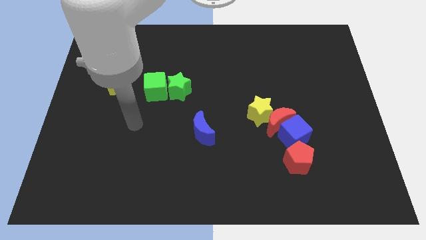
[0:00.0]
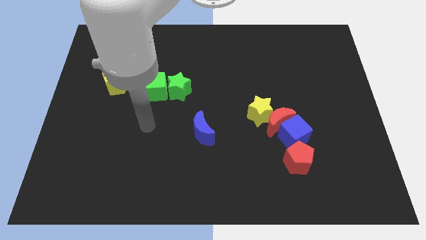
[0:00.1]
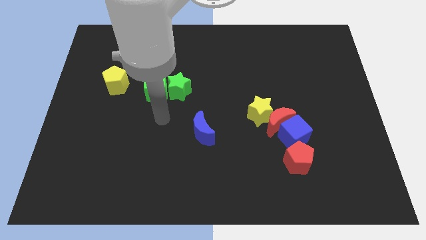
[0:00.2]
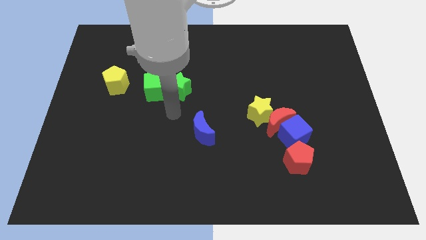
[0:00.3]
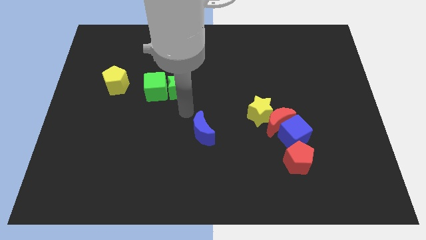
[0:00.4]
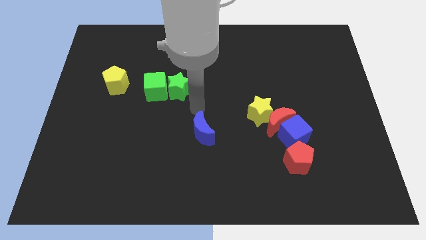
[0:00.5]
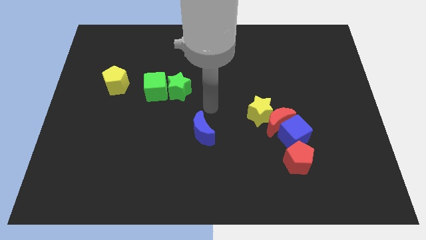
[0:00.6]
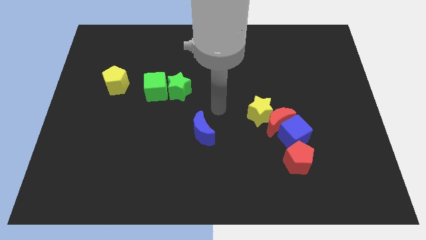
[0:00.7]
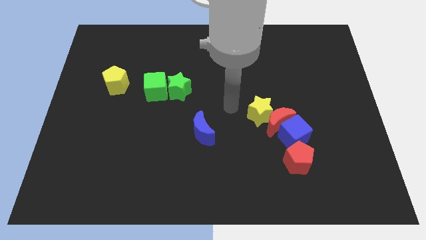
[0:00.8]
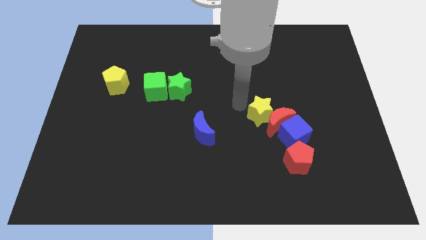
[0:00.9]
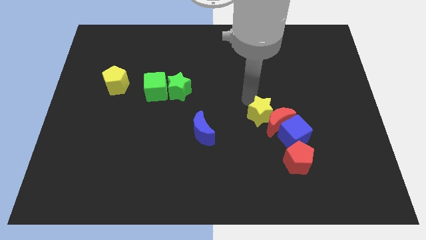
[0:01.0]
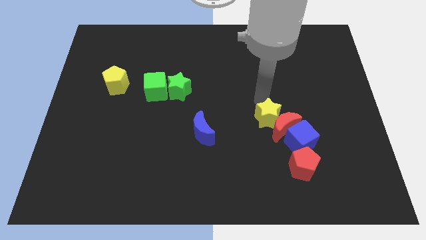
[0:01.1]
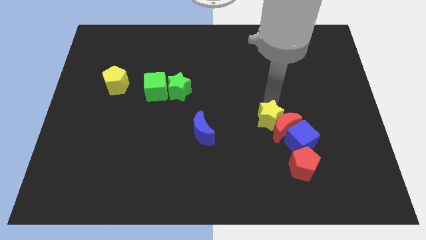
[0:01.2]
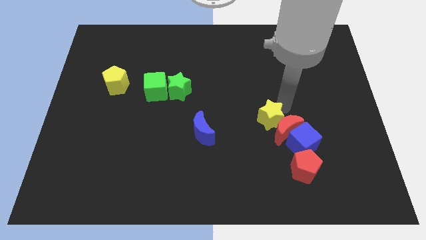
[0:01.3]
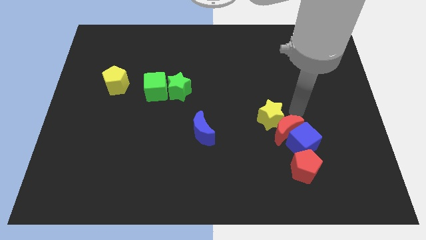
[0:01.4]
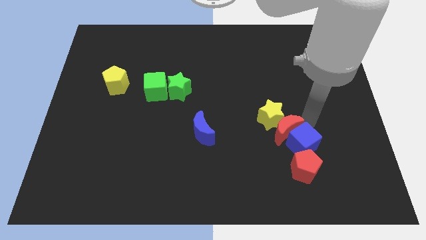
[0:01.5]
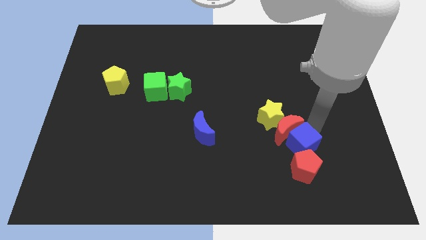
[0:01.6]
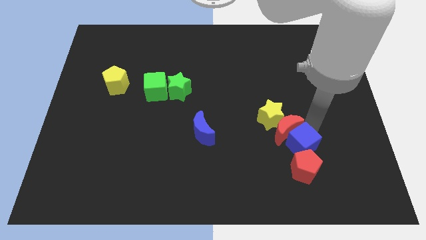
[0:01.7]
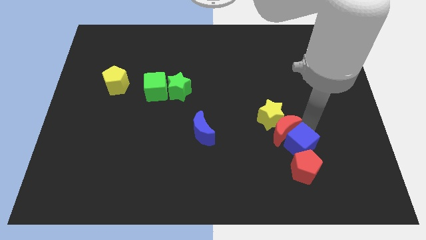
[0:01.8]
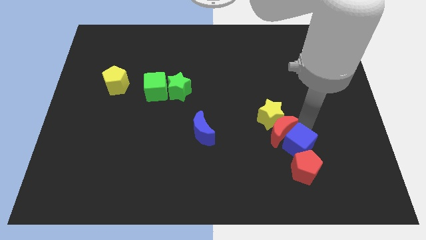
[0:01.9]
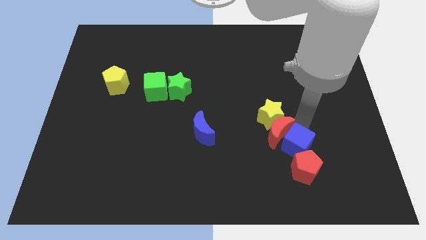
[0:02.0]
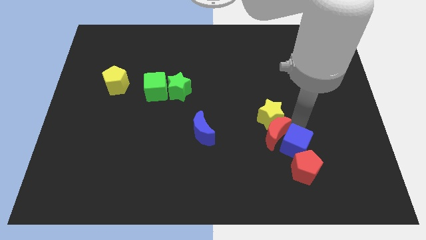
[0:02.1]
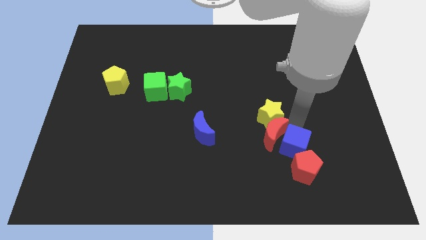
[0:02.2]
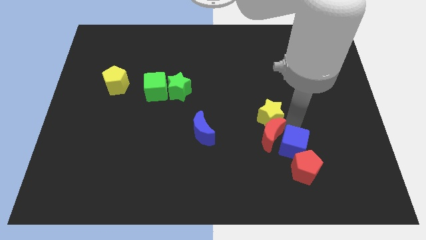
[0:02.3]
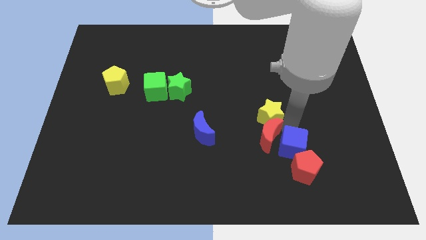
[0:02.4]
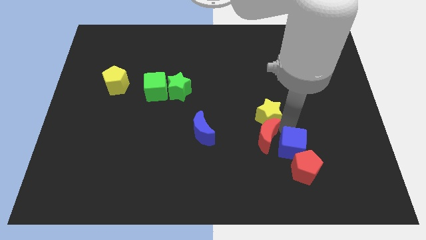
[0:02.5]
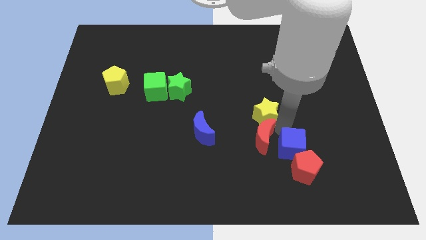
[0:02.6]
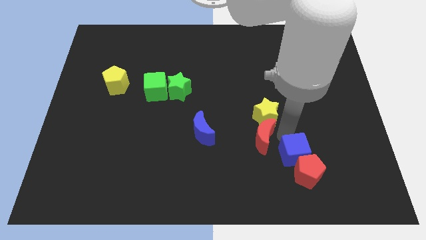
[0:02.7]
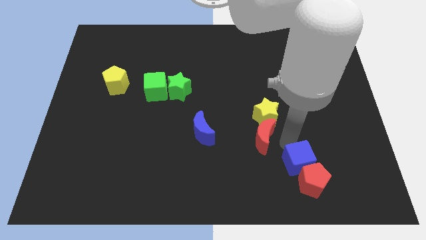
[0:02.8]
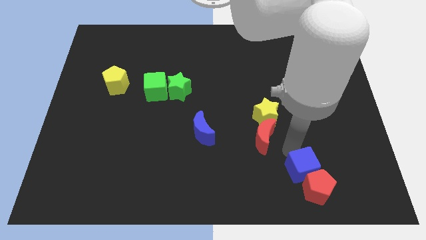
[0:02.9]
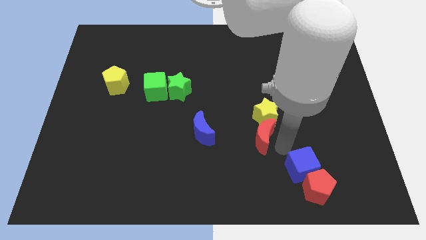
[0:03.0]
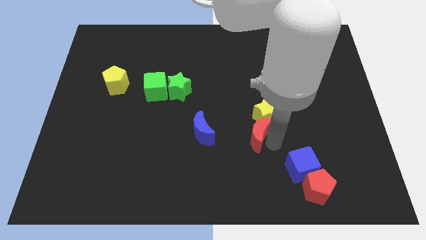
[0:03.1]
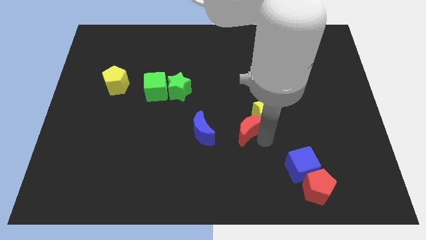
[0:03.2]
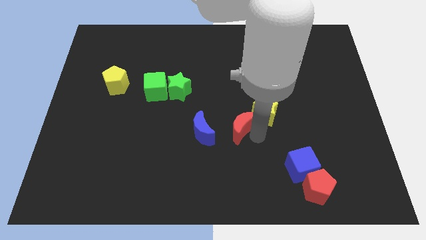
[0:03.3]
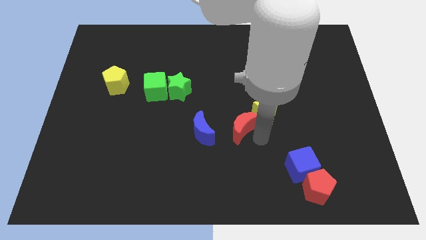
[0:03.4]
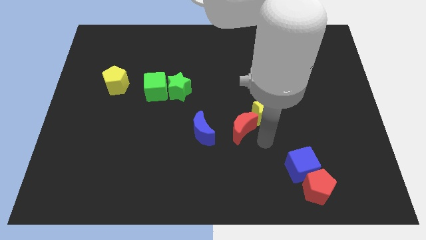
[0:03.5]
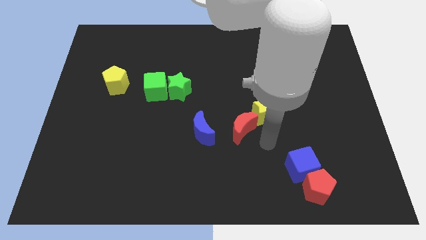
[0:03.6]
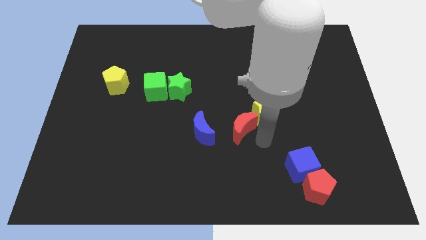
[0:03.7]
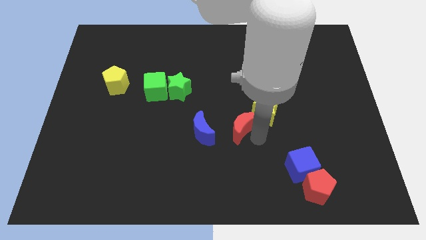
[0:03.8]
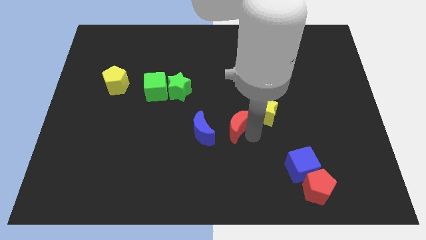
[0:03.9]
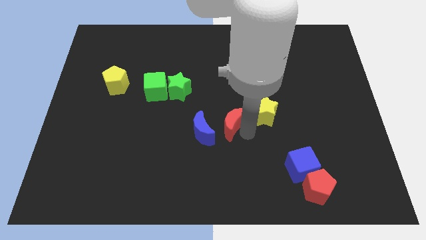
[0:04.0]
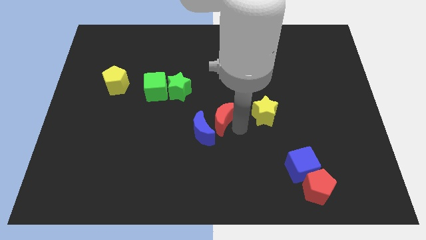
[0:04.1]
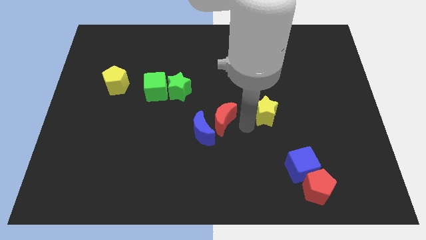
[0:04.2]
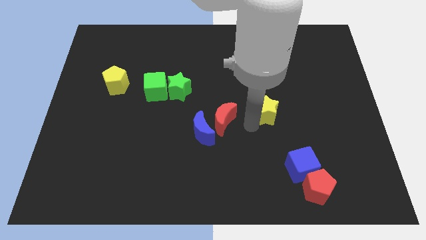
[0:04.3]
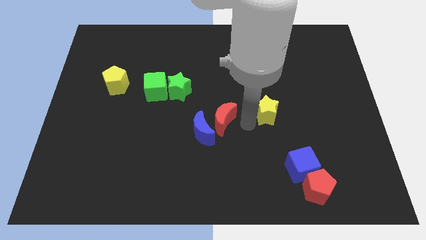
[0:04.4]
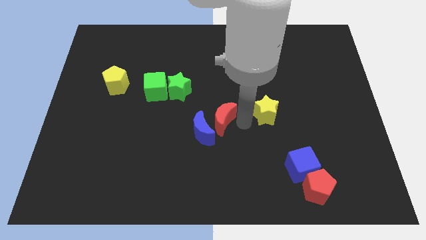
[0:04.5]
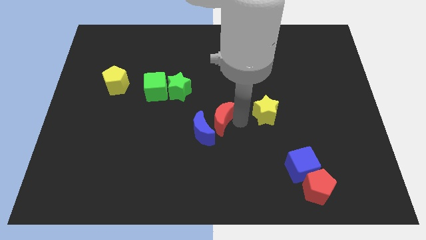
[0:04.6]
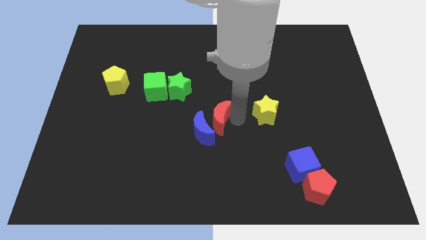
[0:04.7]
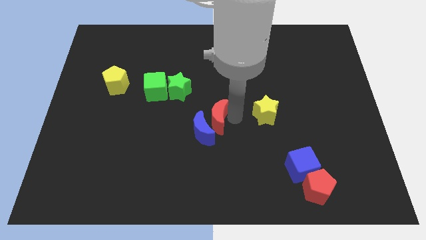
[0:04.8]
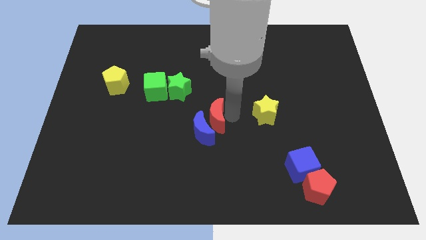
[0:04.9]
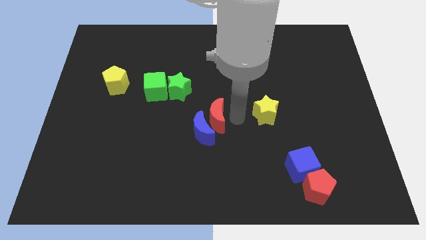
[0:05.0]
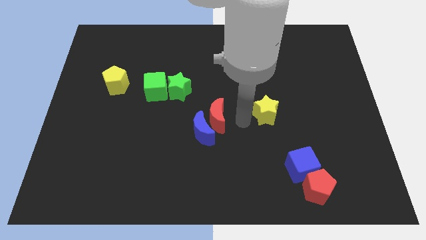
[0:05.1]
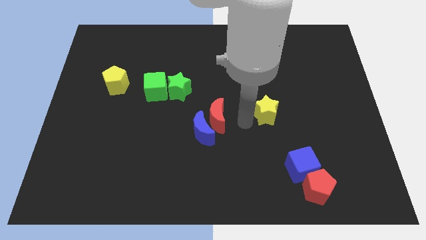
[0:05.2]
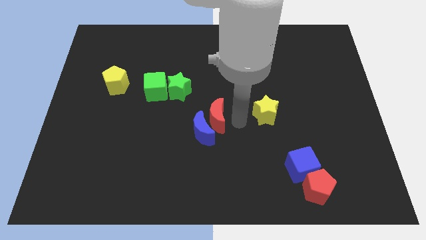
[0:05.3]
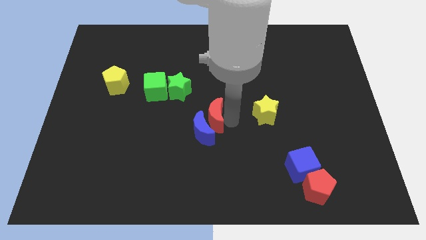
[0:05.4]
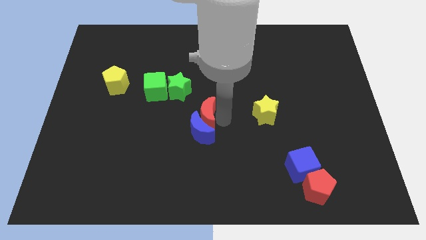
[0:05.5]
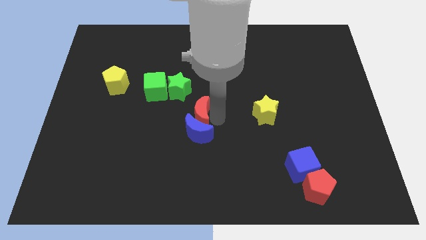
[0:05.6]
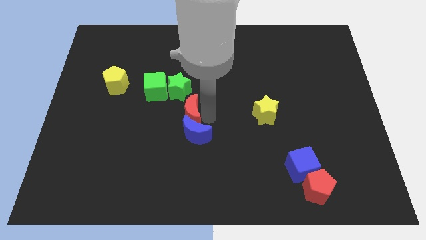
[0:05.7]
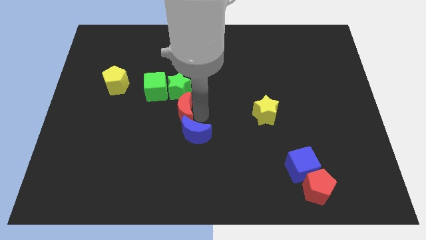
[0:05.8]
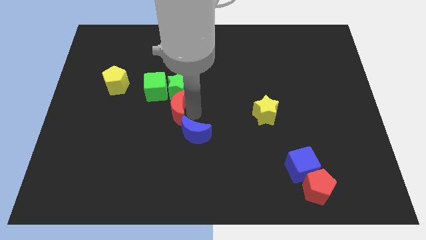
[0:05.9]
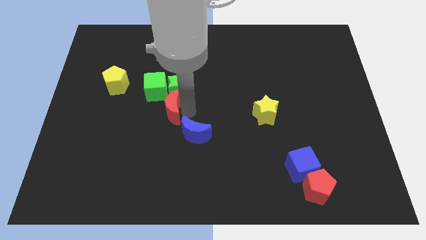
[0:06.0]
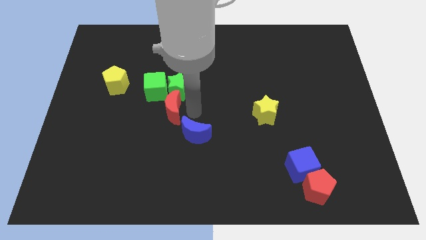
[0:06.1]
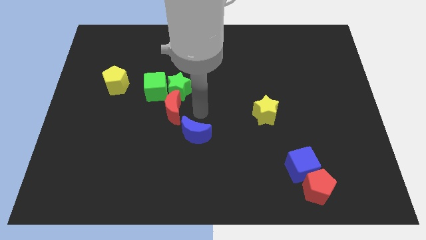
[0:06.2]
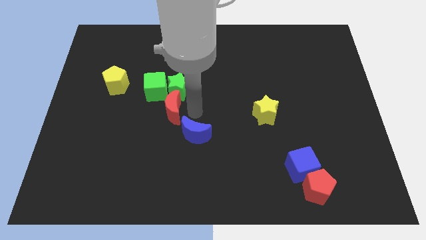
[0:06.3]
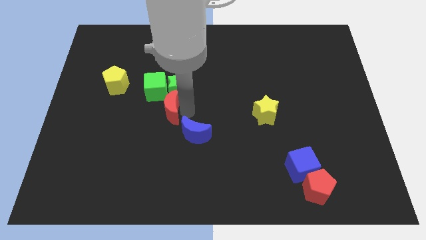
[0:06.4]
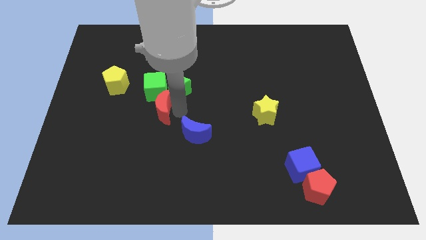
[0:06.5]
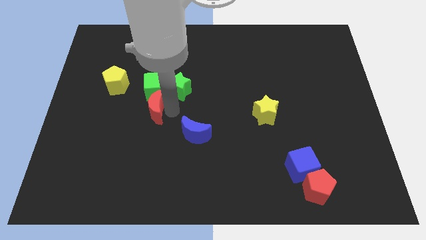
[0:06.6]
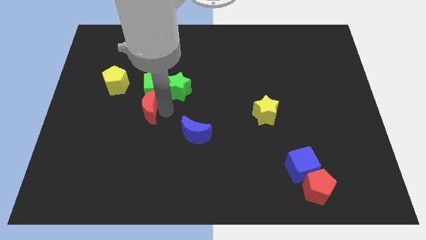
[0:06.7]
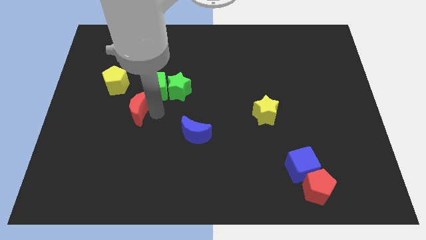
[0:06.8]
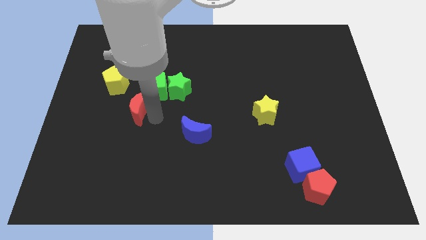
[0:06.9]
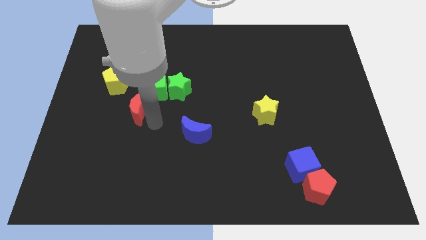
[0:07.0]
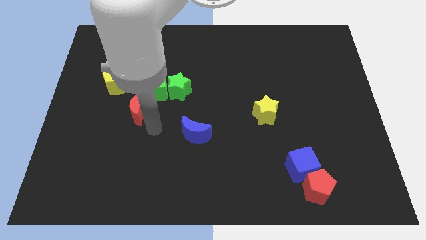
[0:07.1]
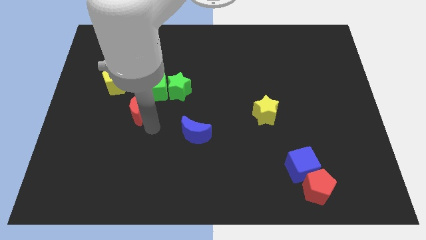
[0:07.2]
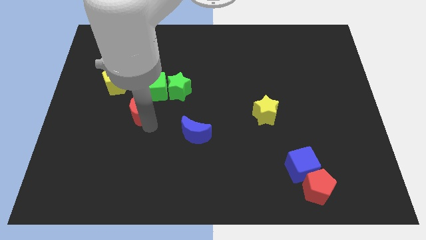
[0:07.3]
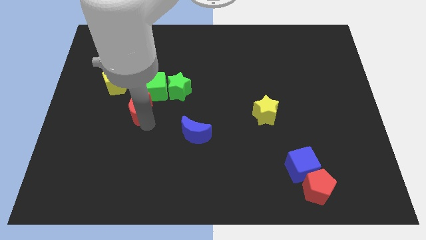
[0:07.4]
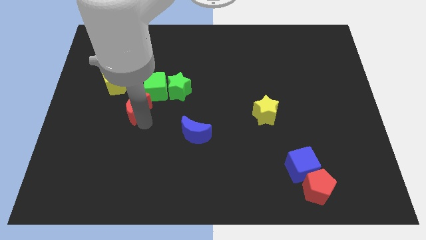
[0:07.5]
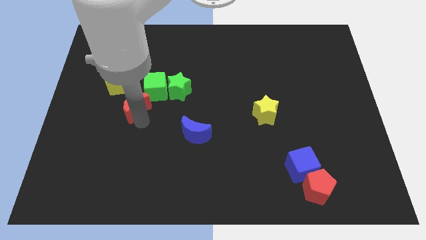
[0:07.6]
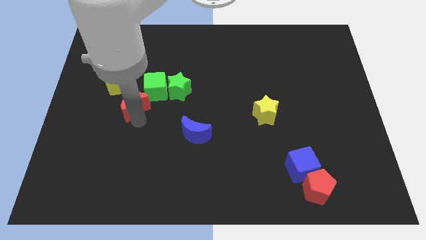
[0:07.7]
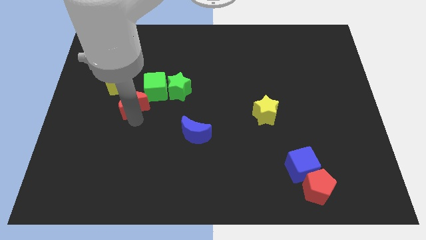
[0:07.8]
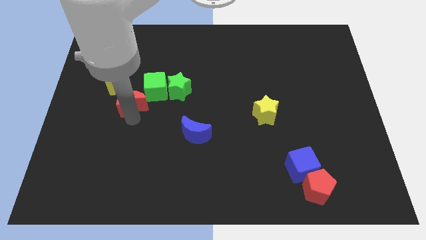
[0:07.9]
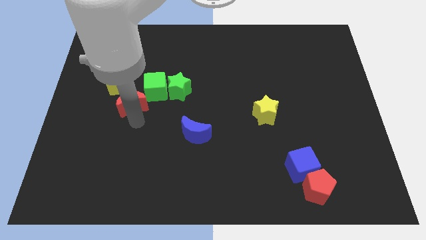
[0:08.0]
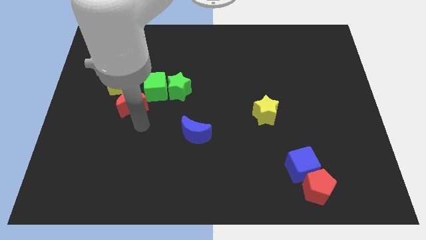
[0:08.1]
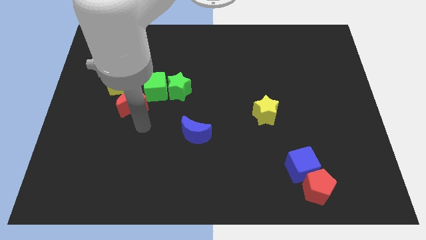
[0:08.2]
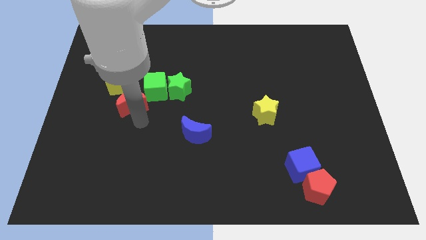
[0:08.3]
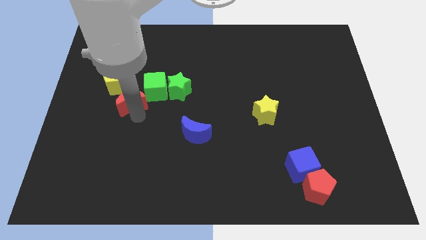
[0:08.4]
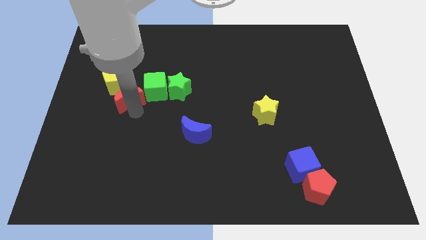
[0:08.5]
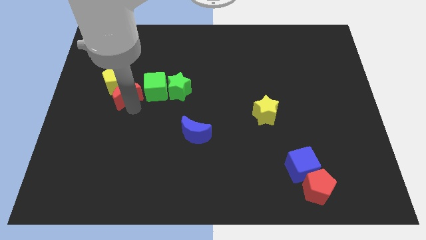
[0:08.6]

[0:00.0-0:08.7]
push the red moon to the yellow pentagon
